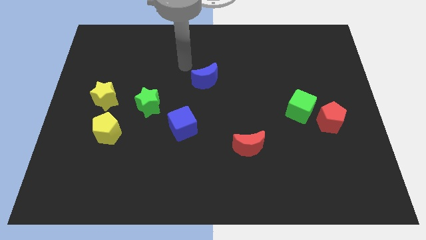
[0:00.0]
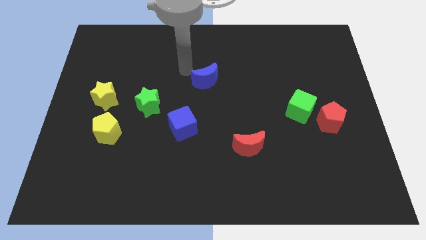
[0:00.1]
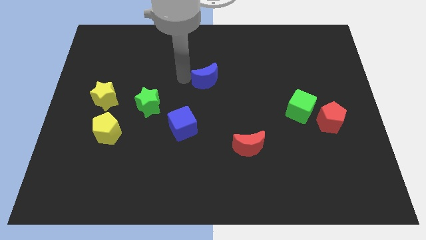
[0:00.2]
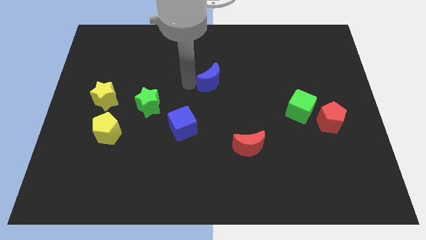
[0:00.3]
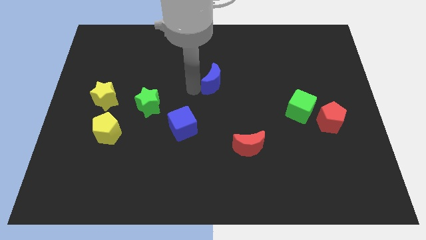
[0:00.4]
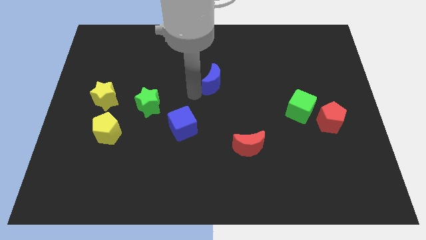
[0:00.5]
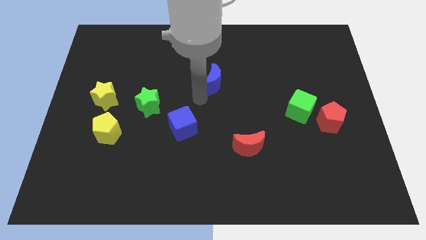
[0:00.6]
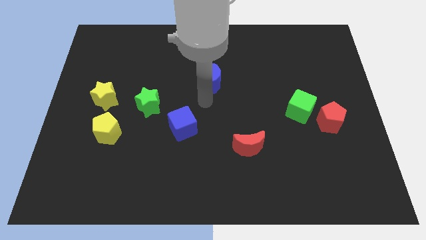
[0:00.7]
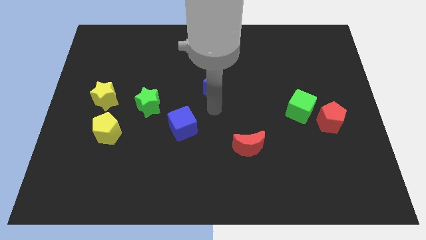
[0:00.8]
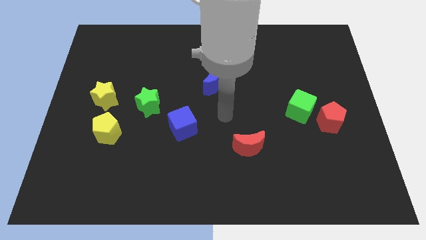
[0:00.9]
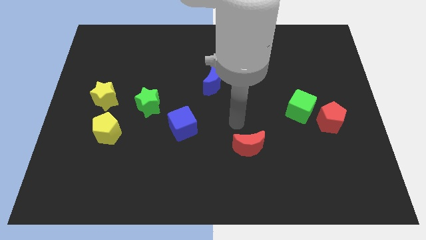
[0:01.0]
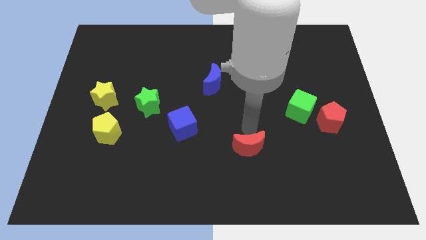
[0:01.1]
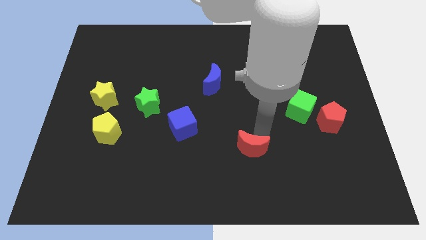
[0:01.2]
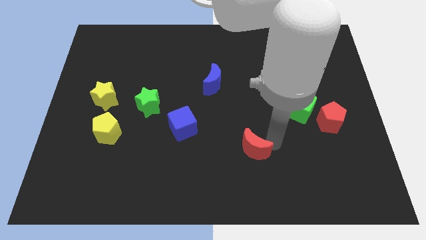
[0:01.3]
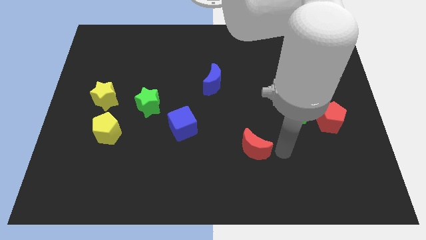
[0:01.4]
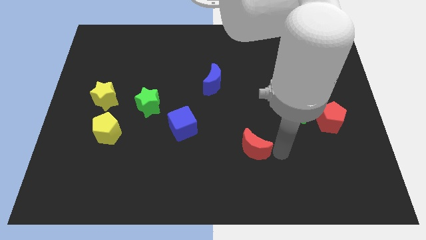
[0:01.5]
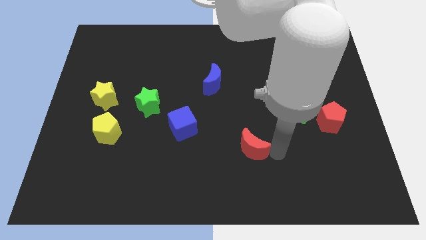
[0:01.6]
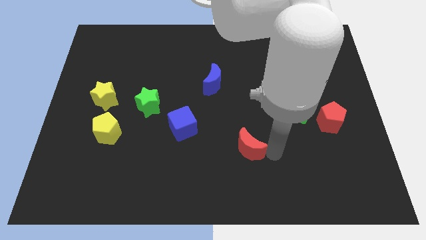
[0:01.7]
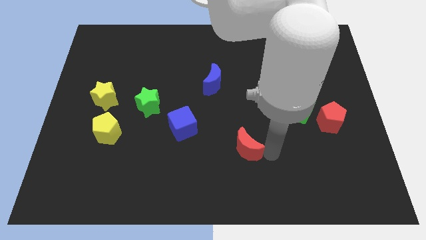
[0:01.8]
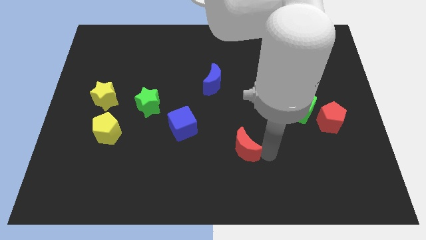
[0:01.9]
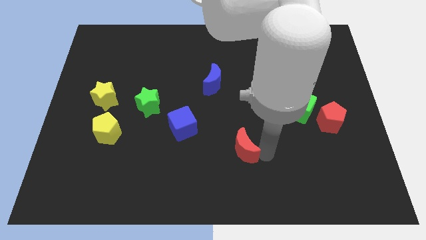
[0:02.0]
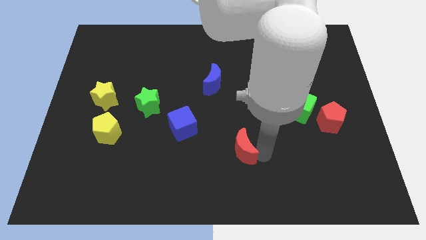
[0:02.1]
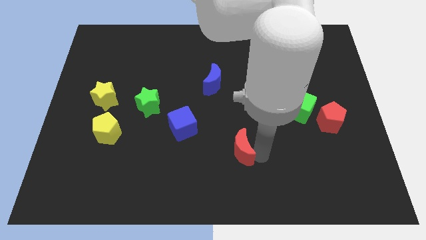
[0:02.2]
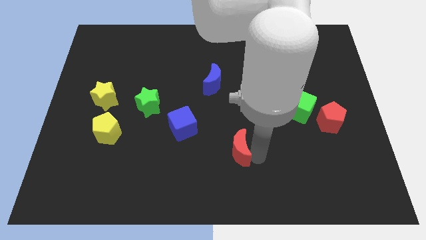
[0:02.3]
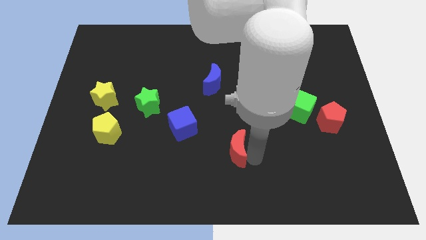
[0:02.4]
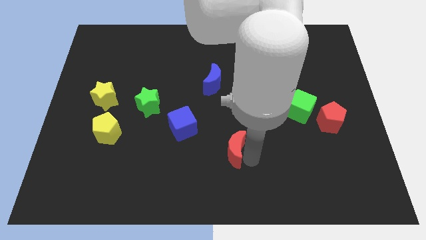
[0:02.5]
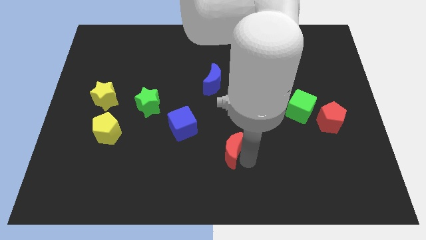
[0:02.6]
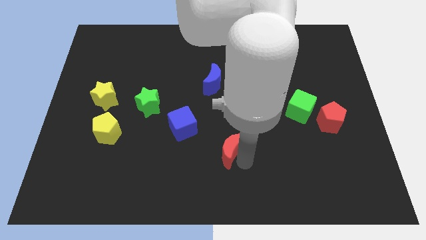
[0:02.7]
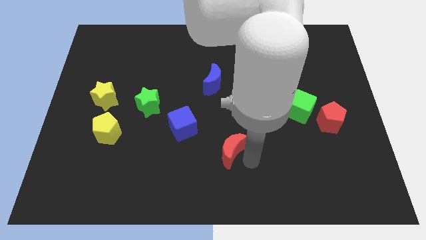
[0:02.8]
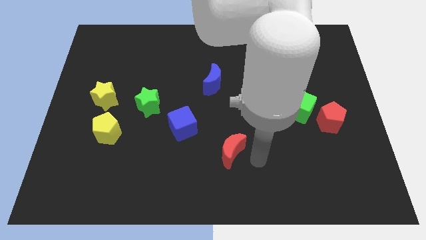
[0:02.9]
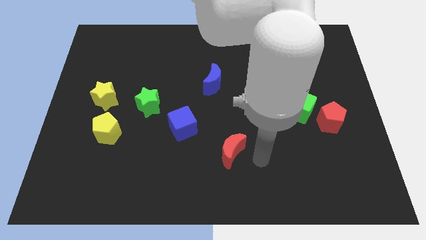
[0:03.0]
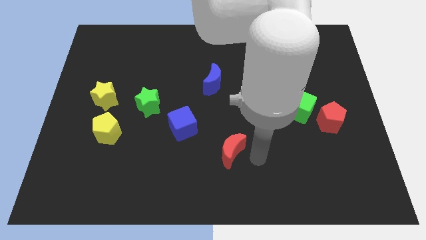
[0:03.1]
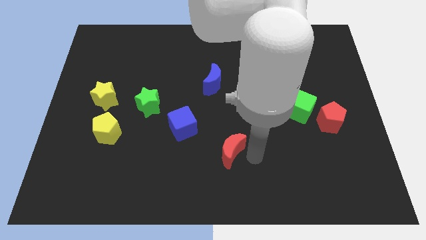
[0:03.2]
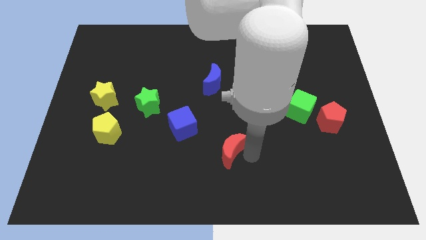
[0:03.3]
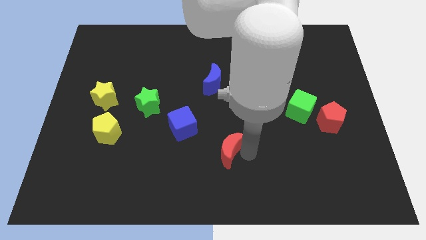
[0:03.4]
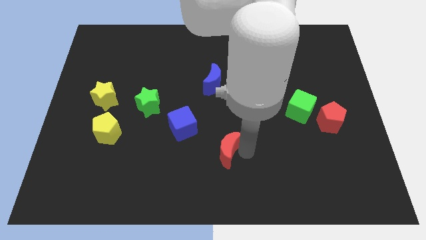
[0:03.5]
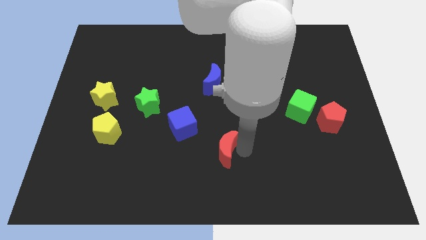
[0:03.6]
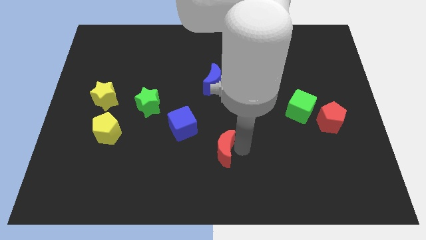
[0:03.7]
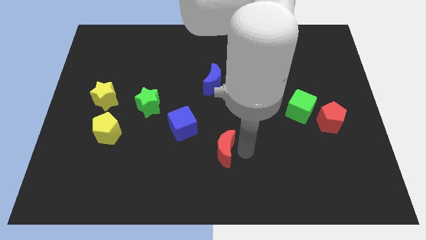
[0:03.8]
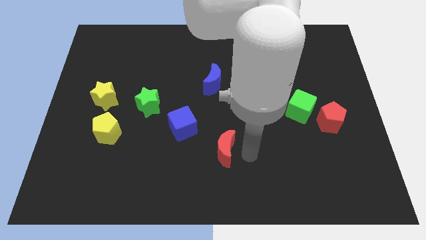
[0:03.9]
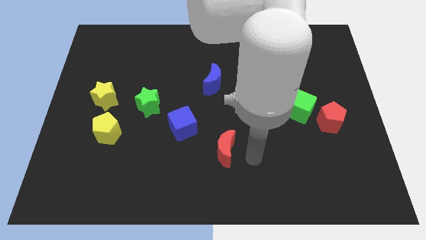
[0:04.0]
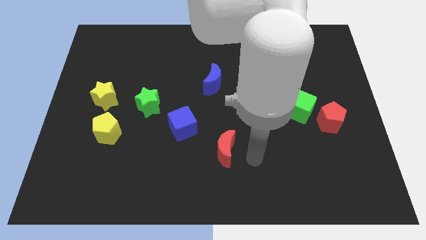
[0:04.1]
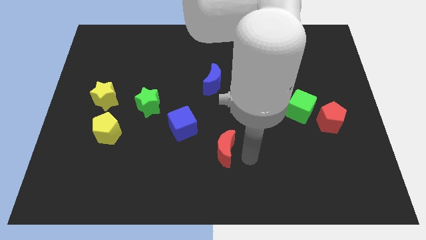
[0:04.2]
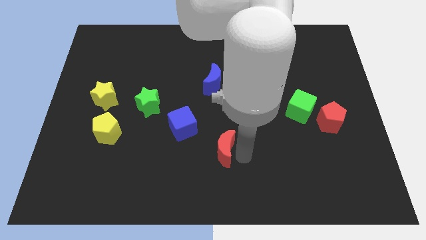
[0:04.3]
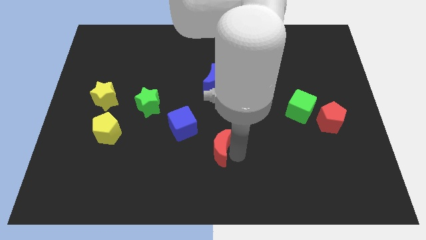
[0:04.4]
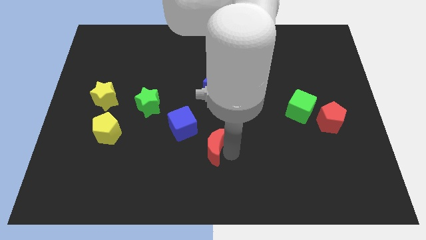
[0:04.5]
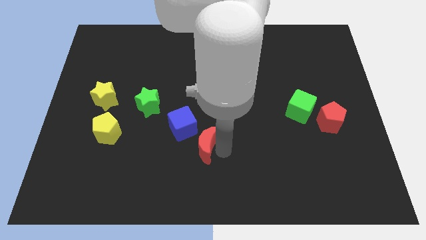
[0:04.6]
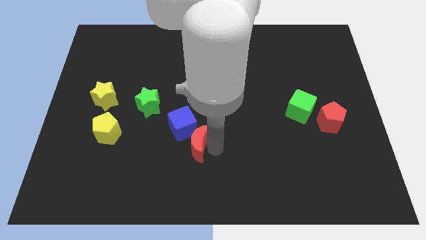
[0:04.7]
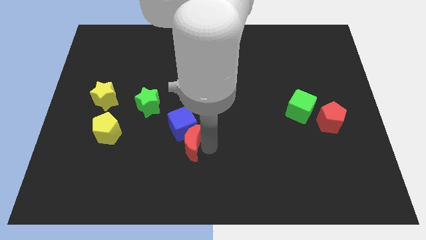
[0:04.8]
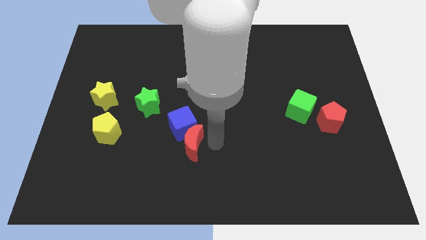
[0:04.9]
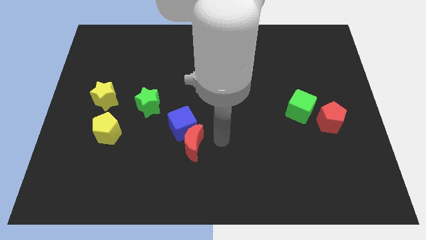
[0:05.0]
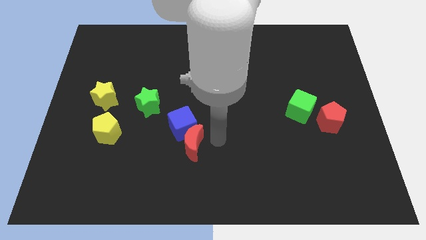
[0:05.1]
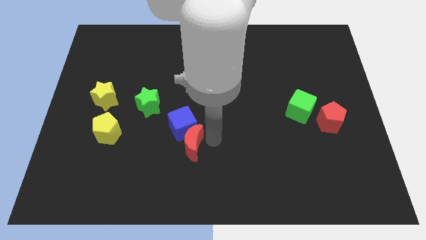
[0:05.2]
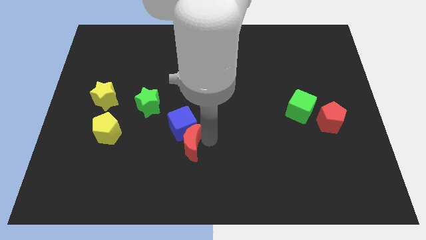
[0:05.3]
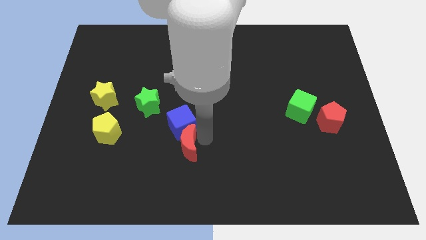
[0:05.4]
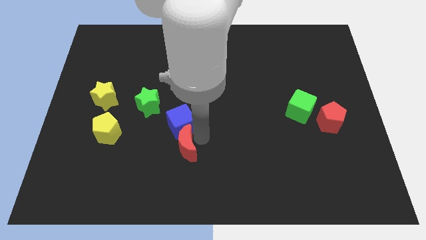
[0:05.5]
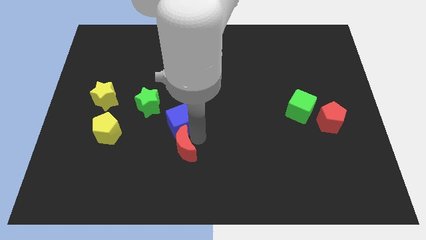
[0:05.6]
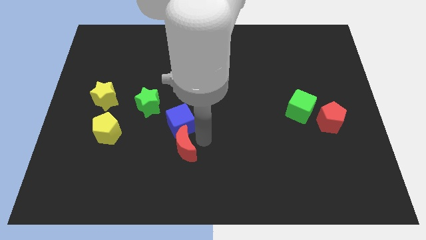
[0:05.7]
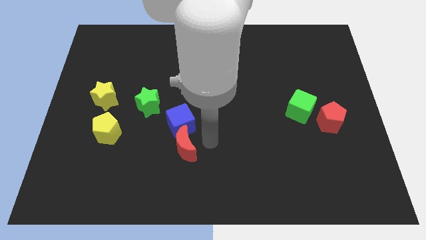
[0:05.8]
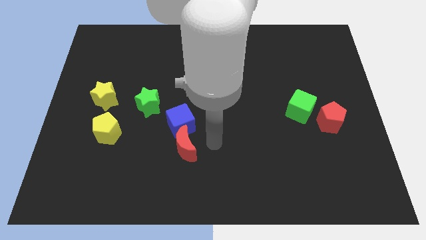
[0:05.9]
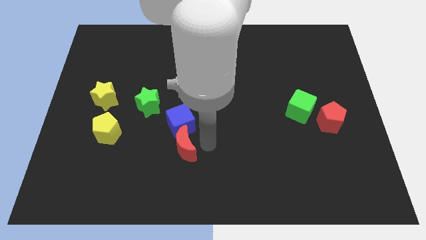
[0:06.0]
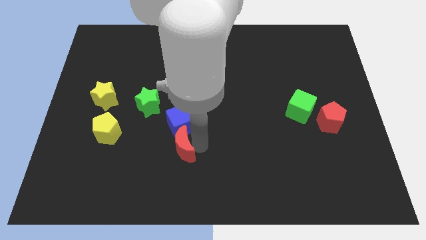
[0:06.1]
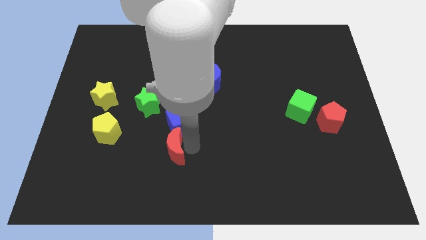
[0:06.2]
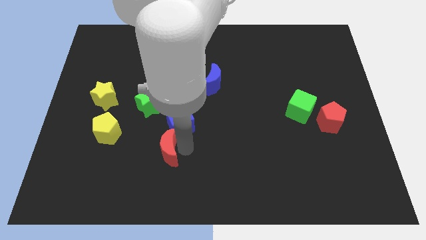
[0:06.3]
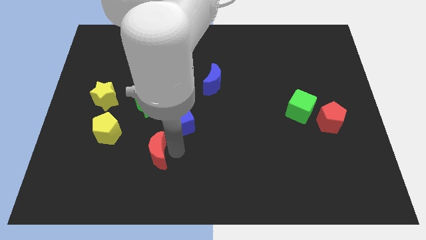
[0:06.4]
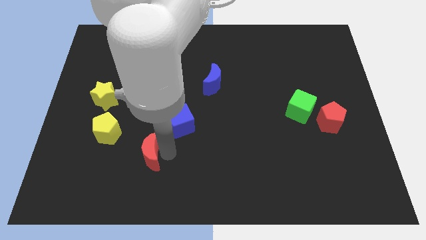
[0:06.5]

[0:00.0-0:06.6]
push the red moon to the left

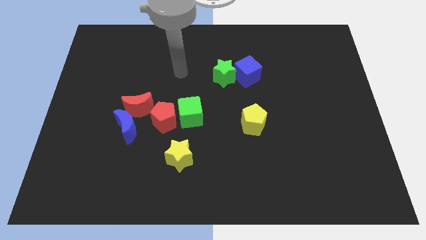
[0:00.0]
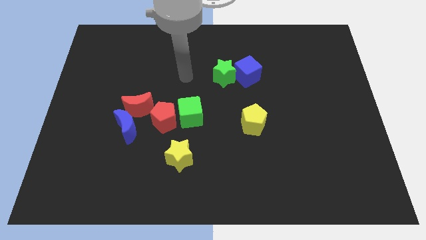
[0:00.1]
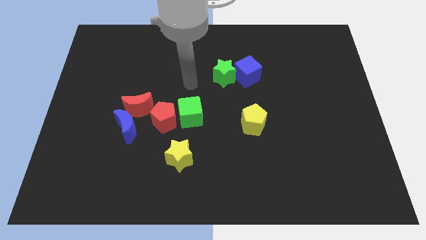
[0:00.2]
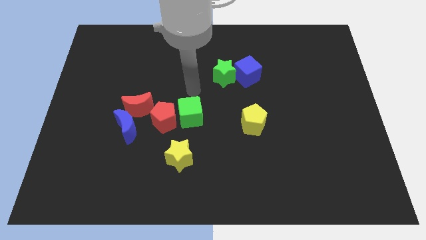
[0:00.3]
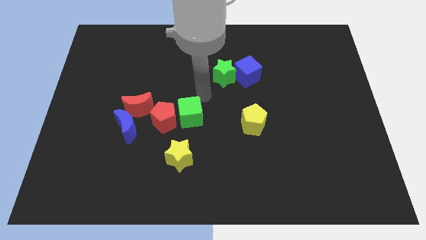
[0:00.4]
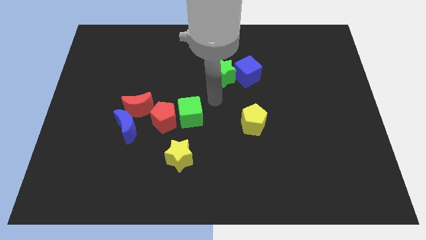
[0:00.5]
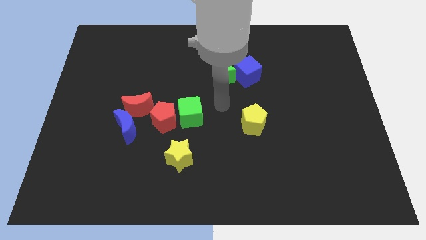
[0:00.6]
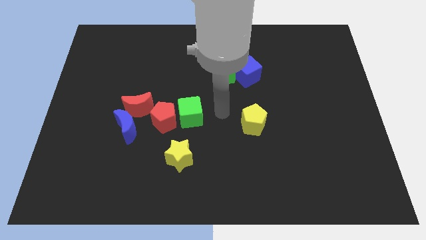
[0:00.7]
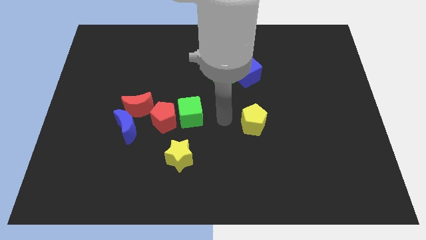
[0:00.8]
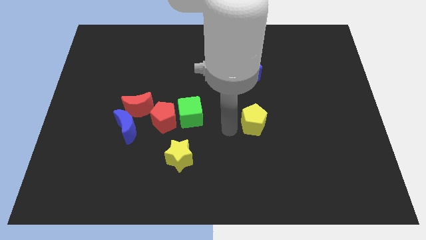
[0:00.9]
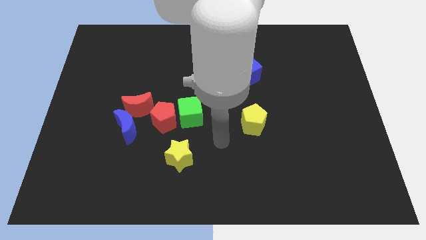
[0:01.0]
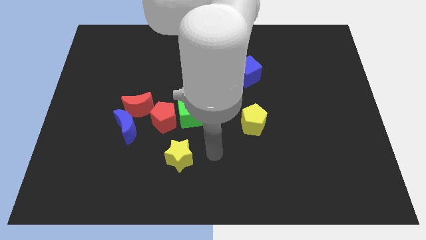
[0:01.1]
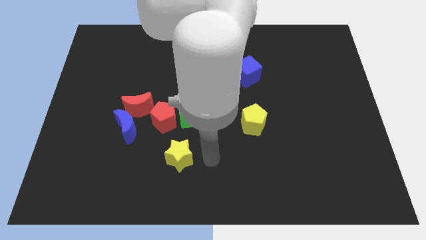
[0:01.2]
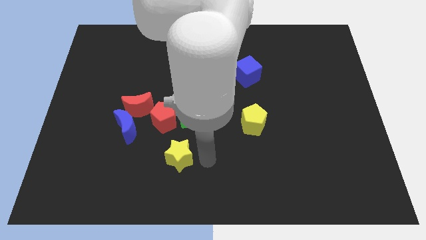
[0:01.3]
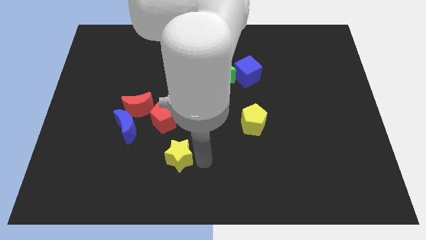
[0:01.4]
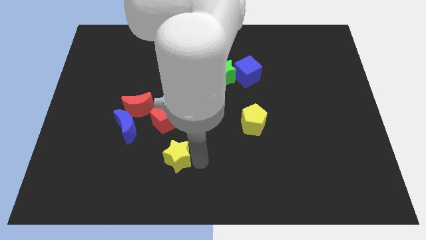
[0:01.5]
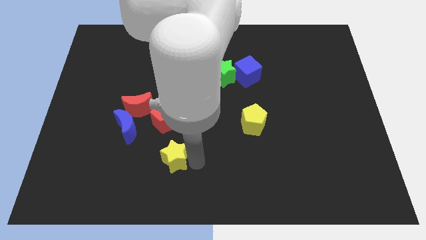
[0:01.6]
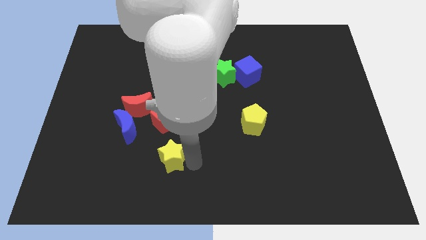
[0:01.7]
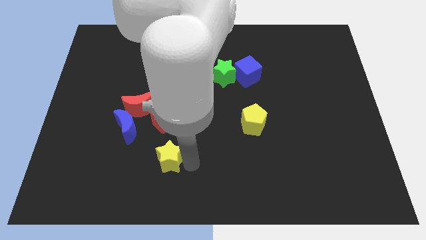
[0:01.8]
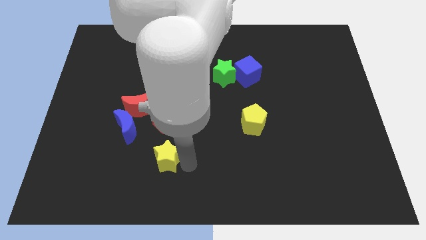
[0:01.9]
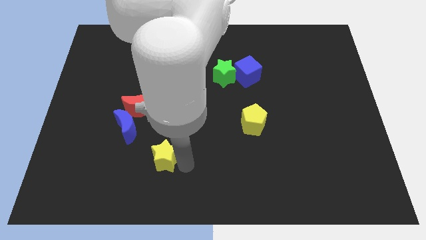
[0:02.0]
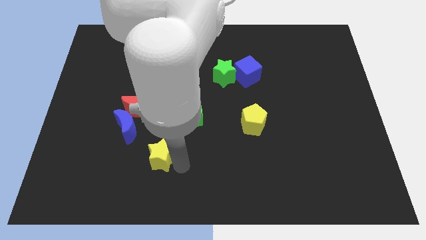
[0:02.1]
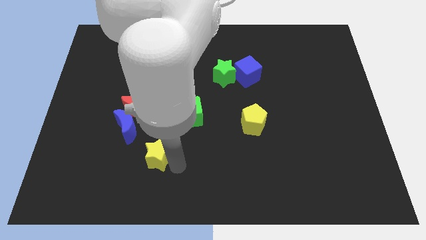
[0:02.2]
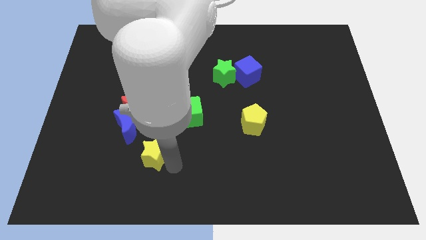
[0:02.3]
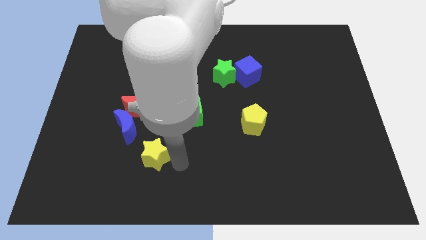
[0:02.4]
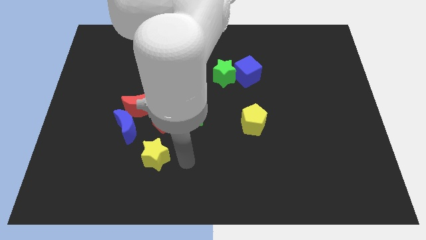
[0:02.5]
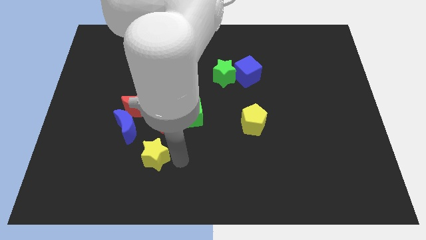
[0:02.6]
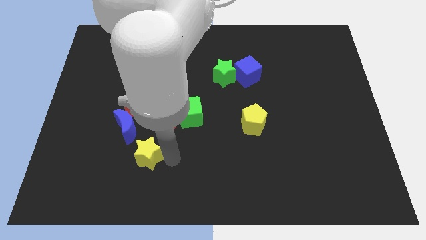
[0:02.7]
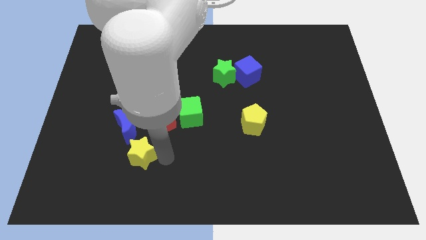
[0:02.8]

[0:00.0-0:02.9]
move the yellow star a little bit left
